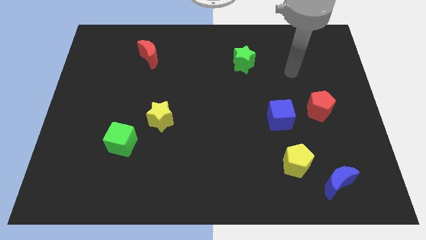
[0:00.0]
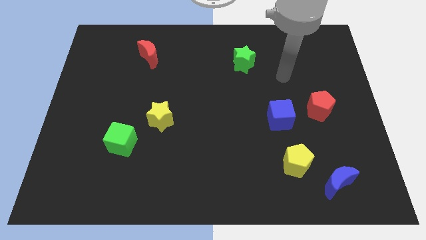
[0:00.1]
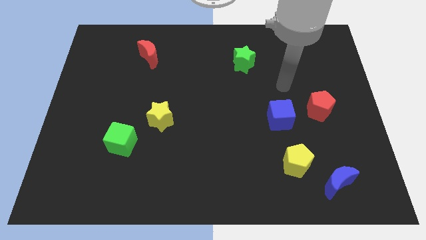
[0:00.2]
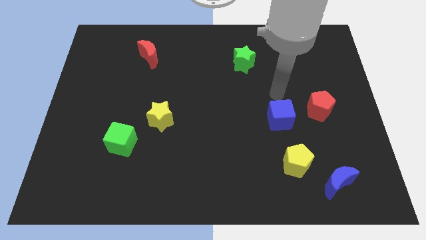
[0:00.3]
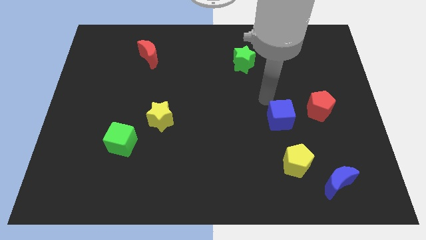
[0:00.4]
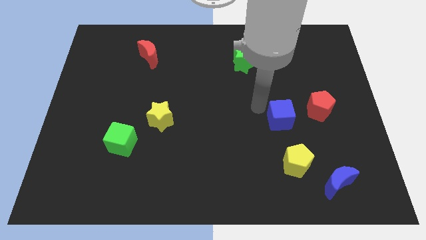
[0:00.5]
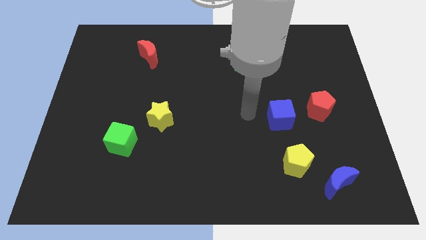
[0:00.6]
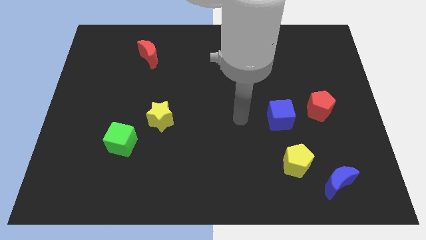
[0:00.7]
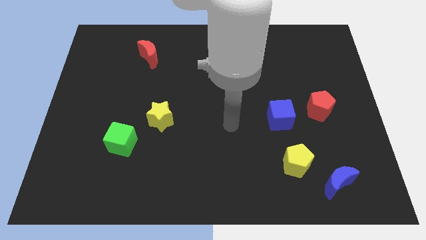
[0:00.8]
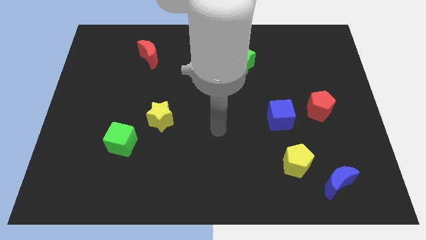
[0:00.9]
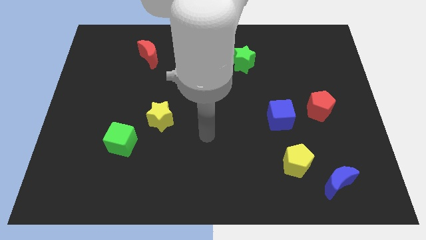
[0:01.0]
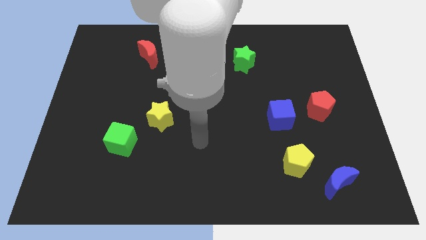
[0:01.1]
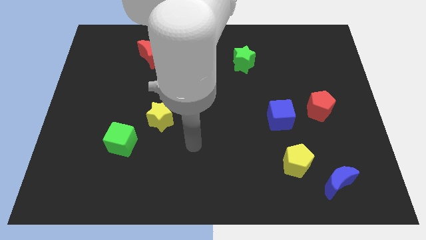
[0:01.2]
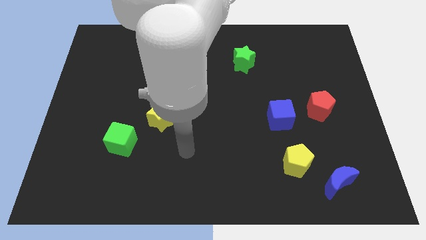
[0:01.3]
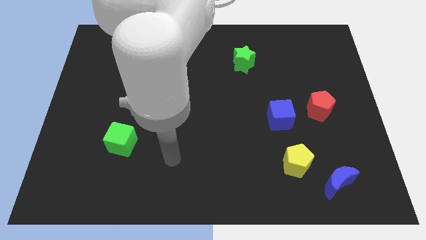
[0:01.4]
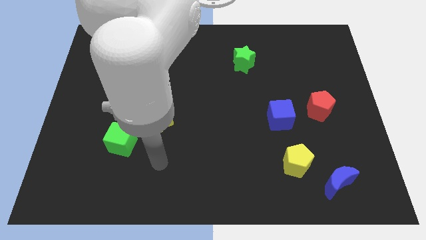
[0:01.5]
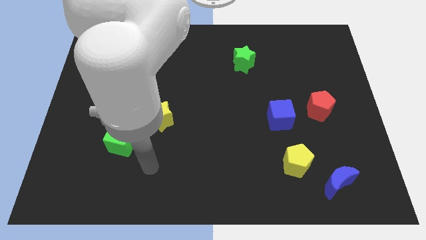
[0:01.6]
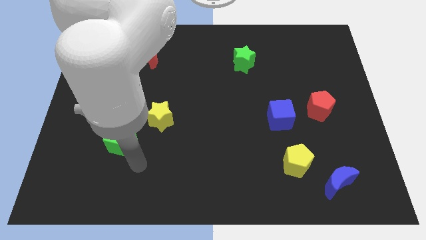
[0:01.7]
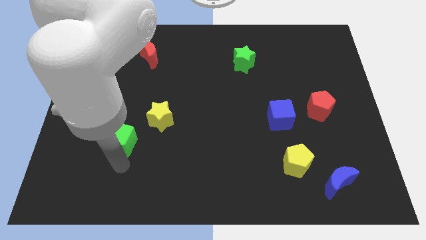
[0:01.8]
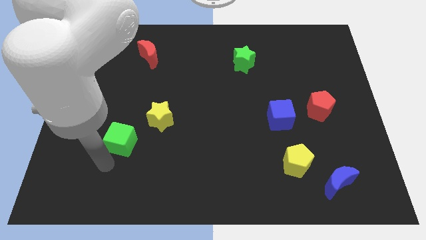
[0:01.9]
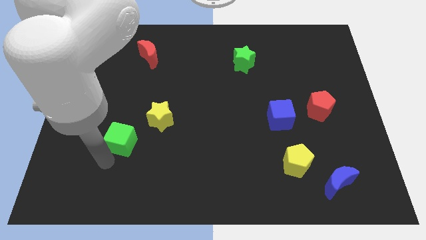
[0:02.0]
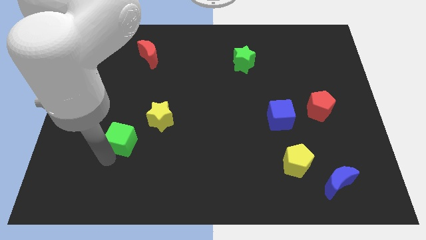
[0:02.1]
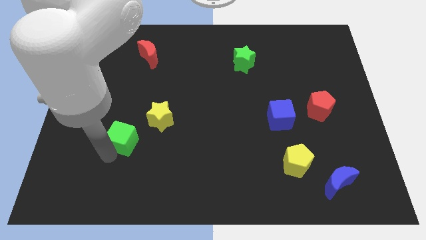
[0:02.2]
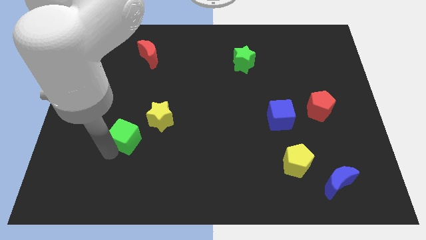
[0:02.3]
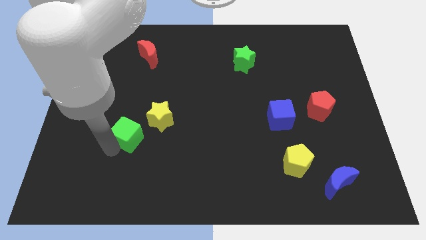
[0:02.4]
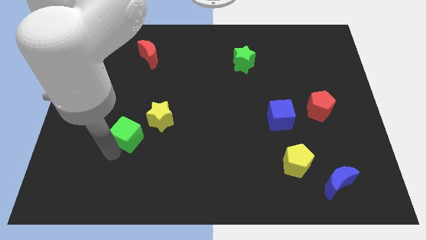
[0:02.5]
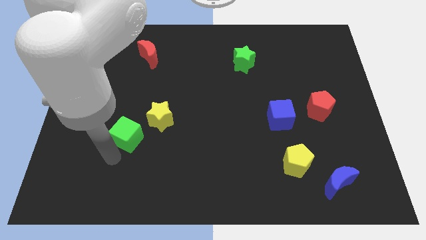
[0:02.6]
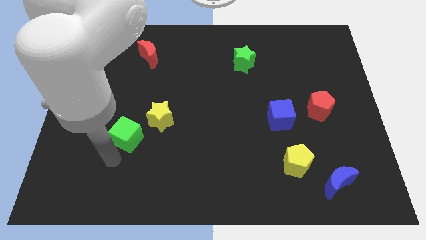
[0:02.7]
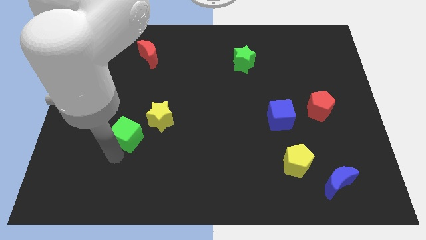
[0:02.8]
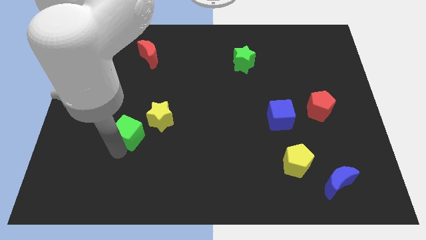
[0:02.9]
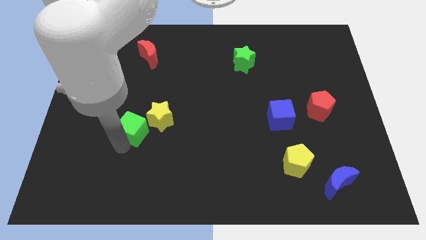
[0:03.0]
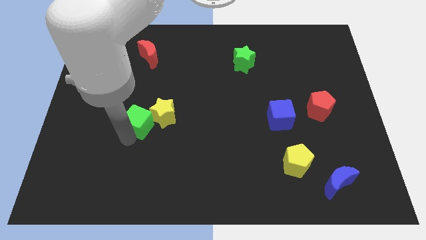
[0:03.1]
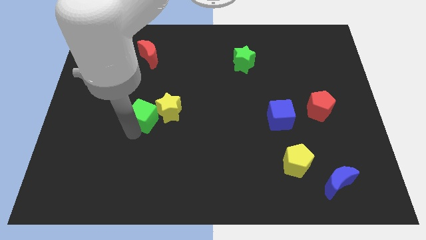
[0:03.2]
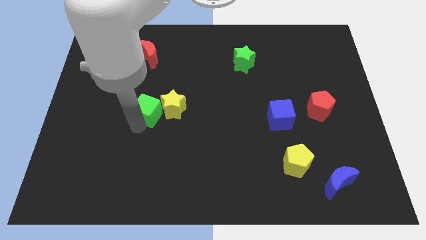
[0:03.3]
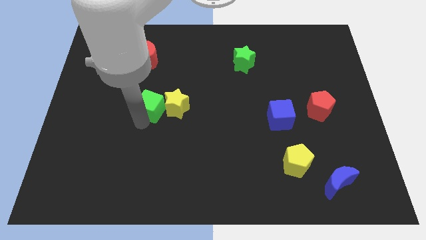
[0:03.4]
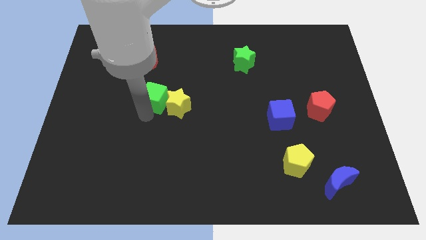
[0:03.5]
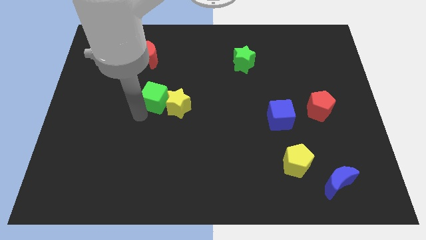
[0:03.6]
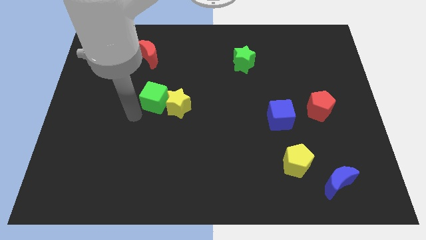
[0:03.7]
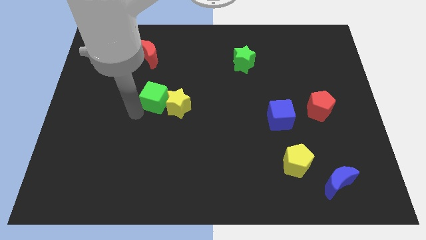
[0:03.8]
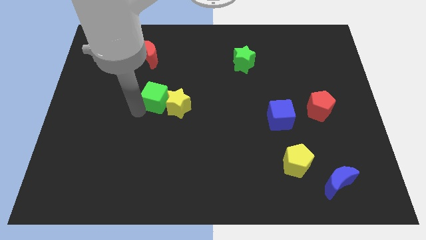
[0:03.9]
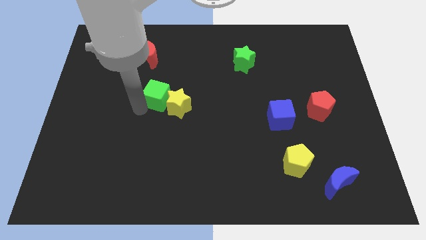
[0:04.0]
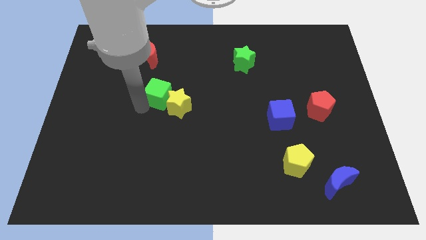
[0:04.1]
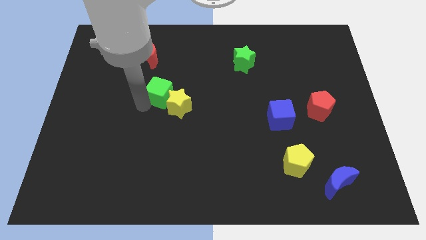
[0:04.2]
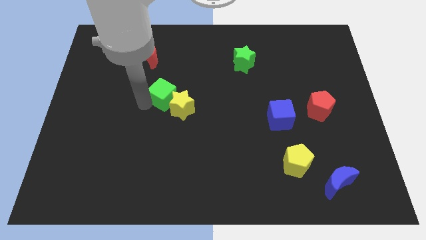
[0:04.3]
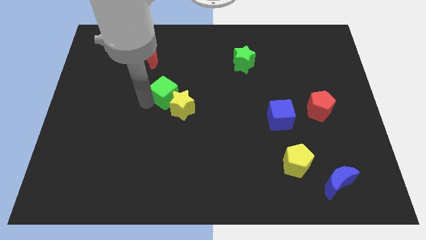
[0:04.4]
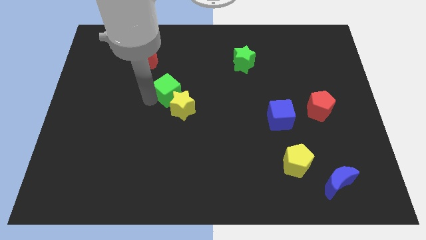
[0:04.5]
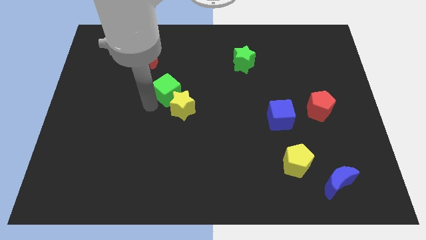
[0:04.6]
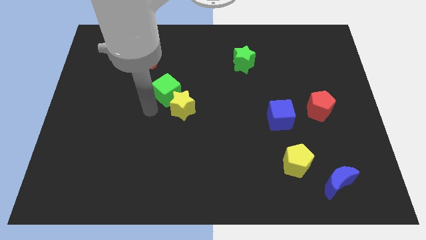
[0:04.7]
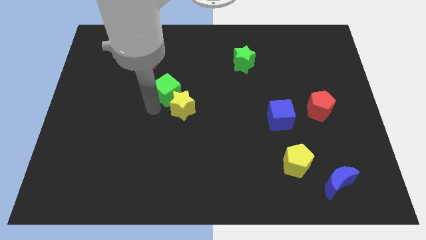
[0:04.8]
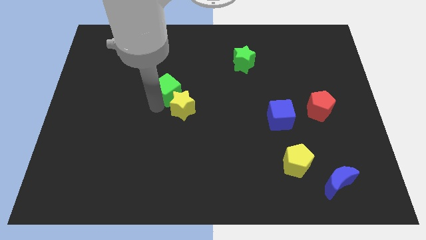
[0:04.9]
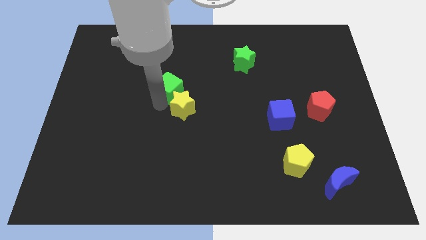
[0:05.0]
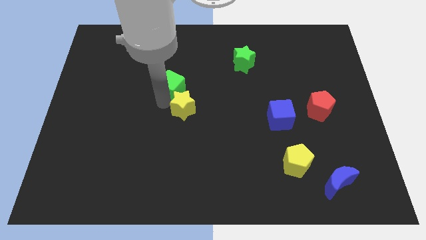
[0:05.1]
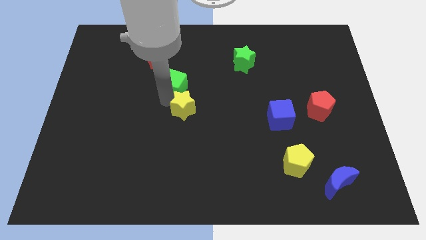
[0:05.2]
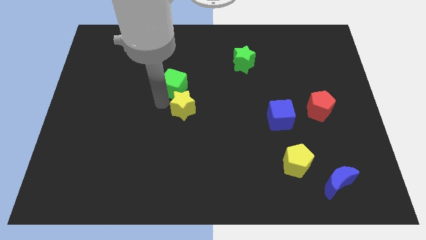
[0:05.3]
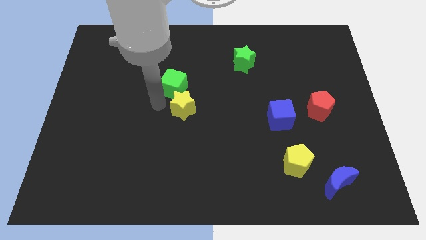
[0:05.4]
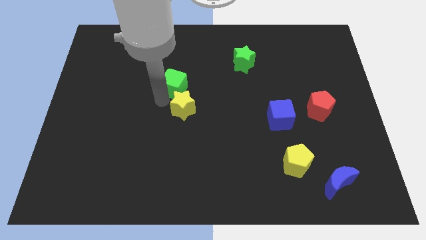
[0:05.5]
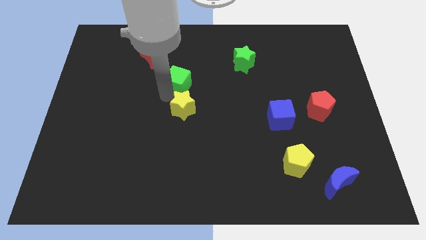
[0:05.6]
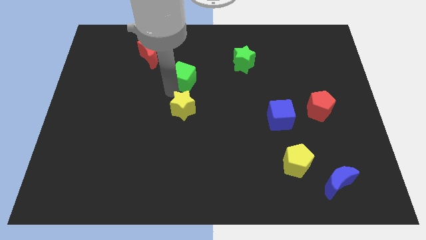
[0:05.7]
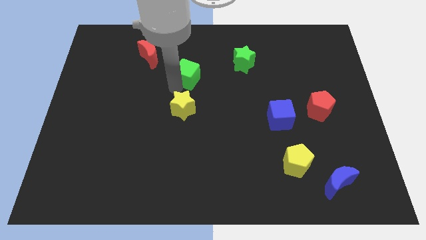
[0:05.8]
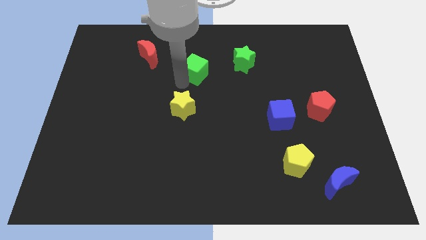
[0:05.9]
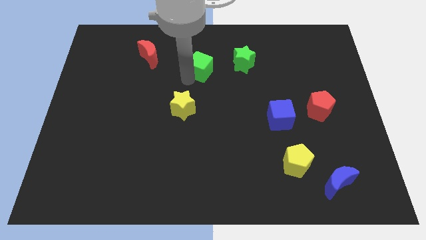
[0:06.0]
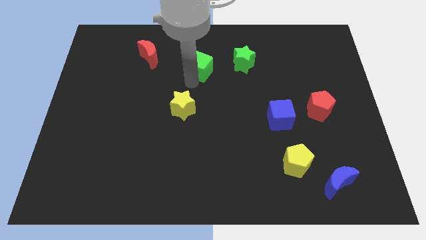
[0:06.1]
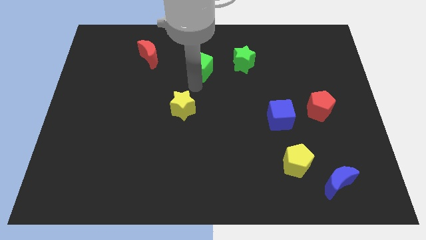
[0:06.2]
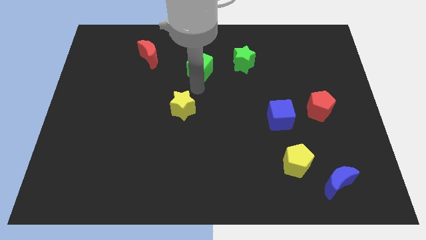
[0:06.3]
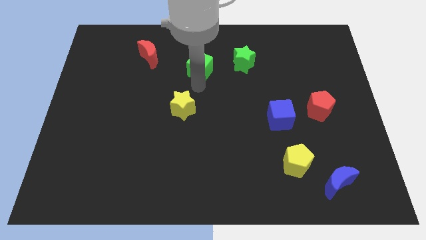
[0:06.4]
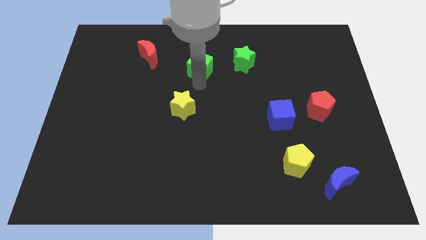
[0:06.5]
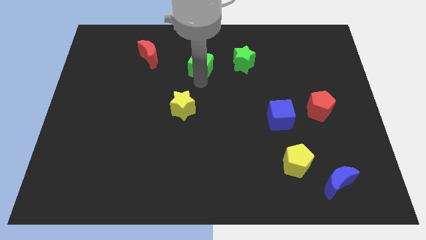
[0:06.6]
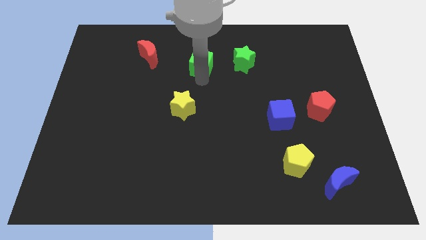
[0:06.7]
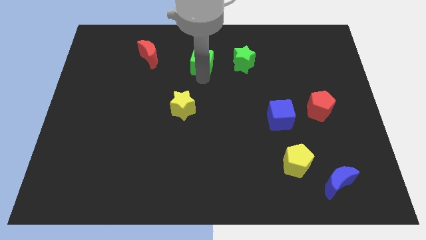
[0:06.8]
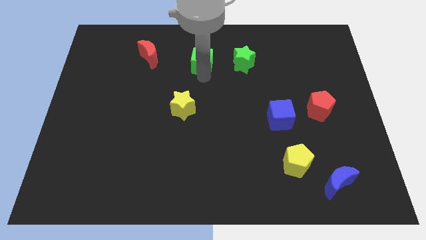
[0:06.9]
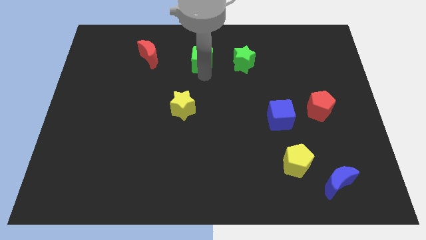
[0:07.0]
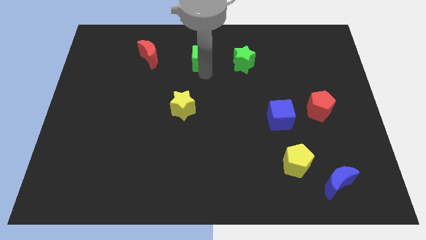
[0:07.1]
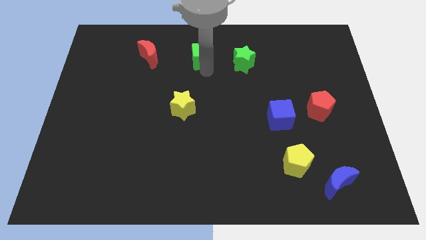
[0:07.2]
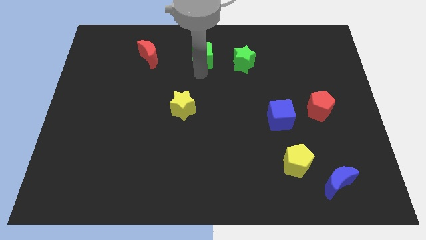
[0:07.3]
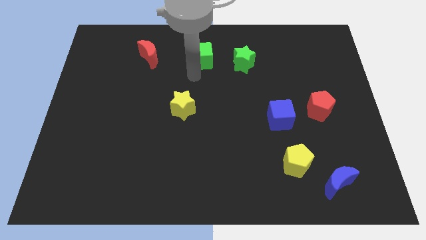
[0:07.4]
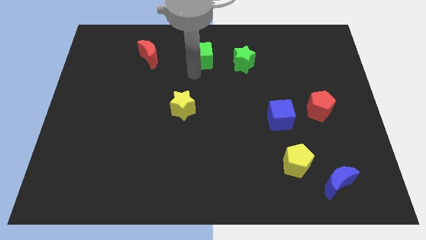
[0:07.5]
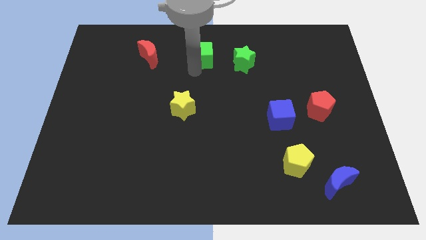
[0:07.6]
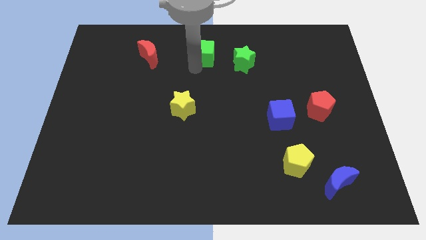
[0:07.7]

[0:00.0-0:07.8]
move the green cube to the towards your base
